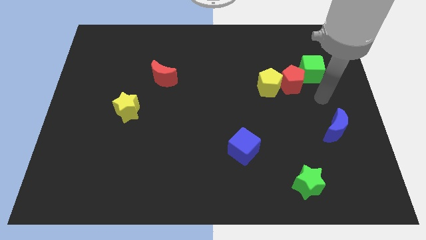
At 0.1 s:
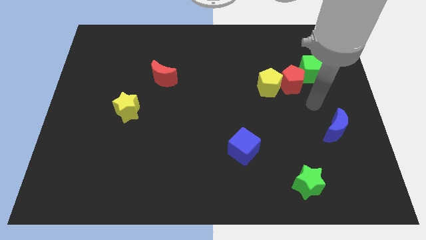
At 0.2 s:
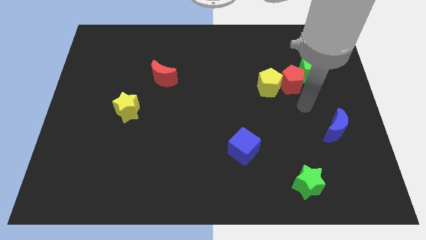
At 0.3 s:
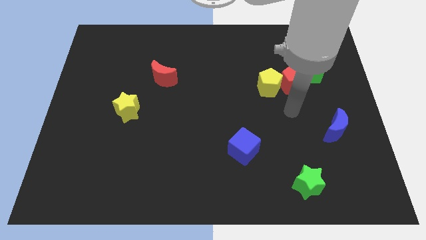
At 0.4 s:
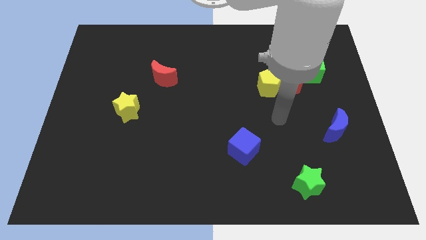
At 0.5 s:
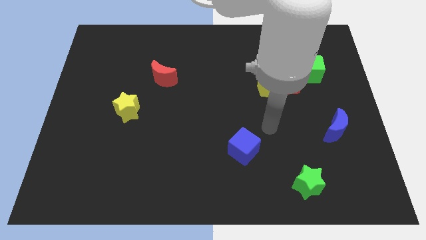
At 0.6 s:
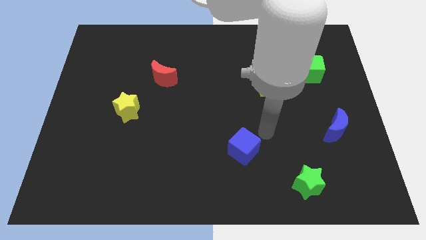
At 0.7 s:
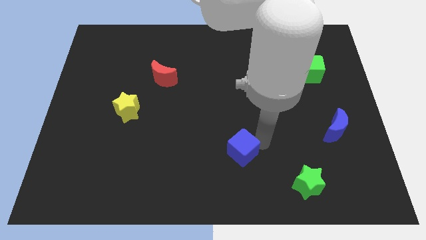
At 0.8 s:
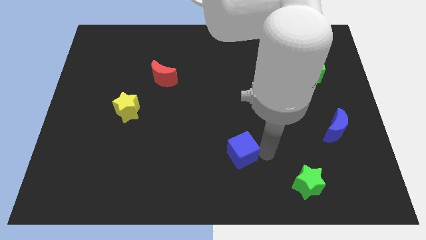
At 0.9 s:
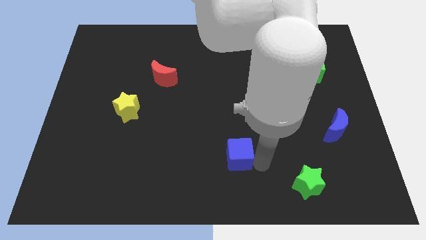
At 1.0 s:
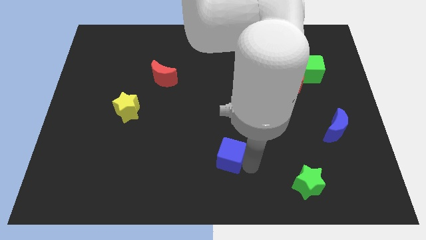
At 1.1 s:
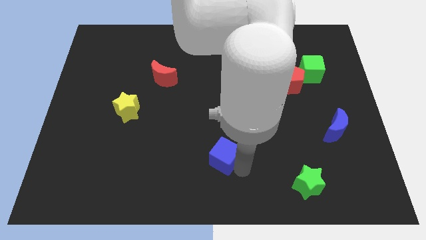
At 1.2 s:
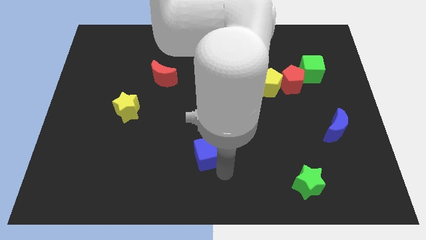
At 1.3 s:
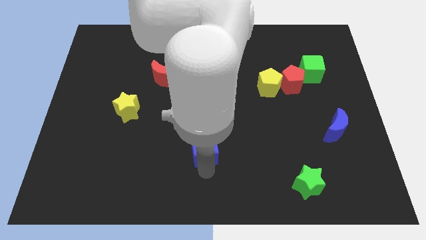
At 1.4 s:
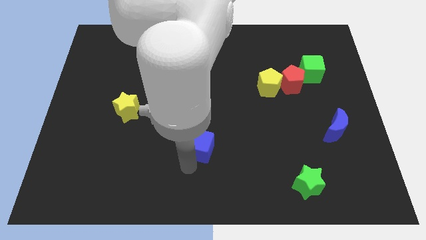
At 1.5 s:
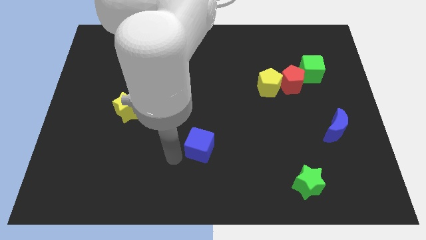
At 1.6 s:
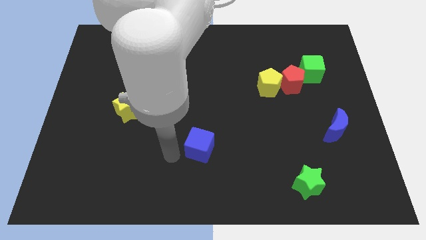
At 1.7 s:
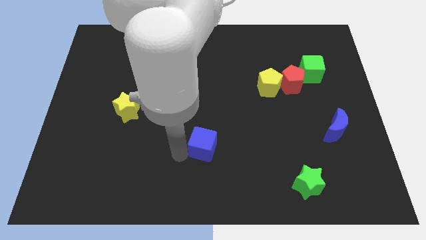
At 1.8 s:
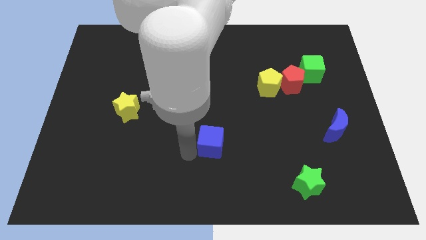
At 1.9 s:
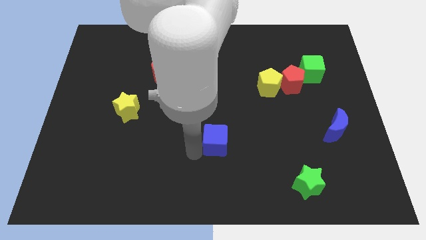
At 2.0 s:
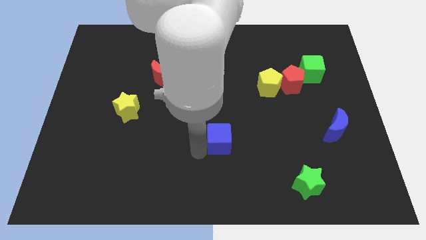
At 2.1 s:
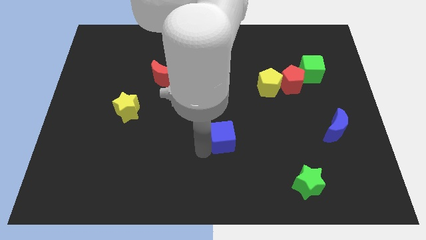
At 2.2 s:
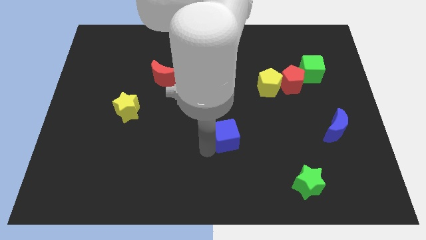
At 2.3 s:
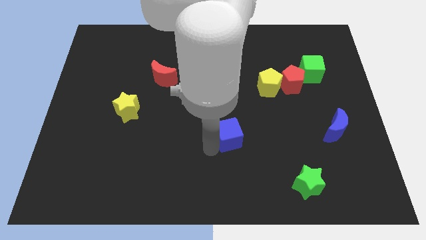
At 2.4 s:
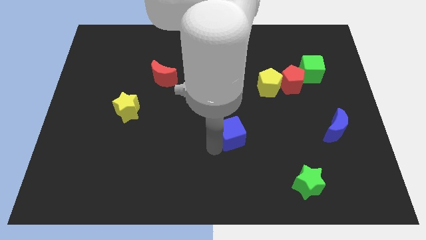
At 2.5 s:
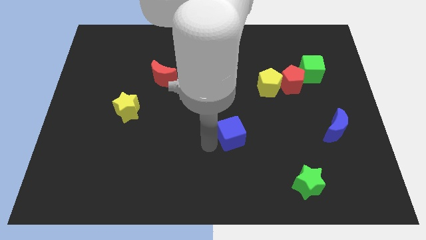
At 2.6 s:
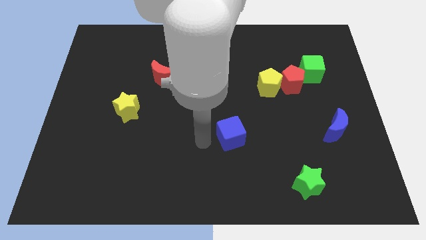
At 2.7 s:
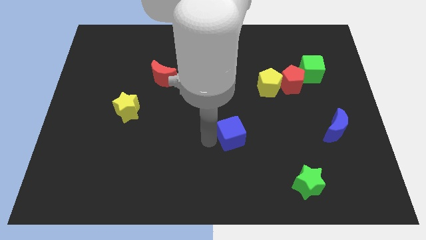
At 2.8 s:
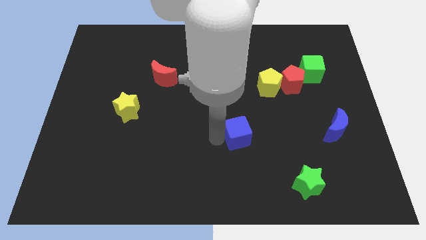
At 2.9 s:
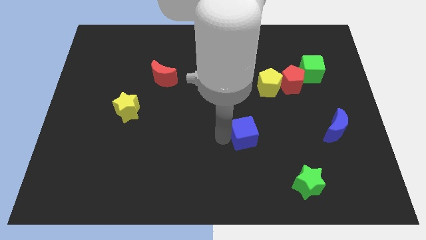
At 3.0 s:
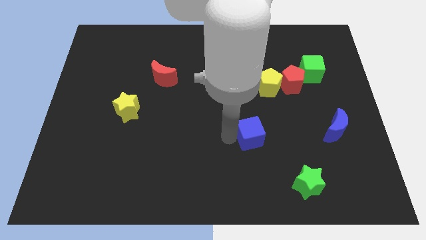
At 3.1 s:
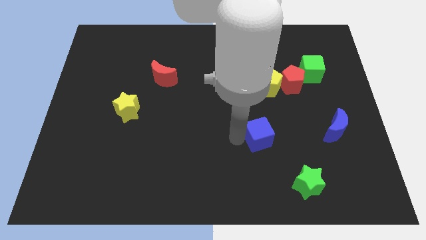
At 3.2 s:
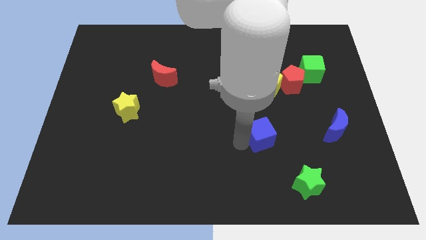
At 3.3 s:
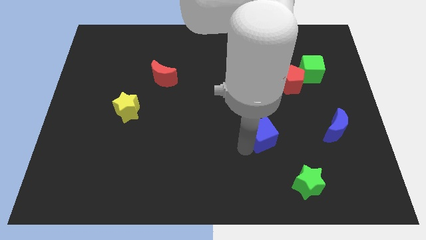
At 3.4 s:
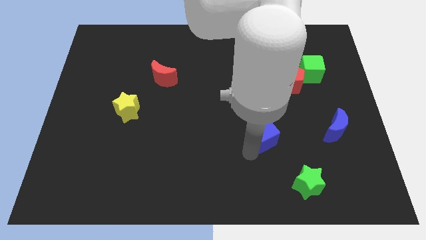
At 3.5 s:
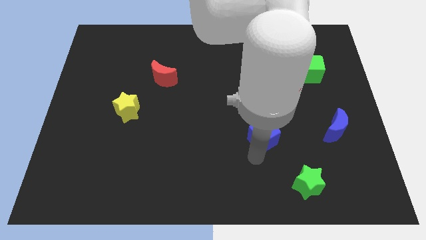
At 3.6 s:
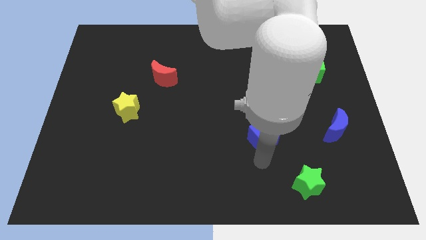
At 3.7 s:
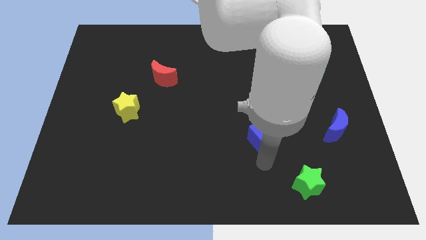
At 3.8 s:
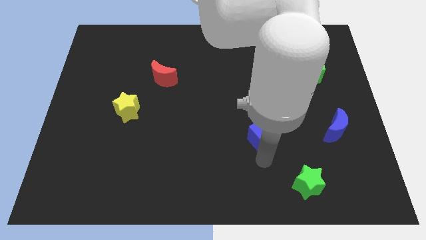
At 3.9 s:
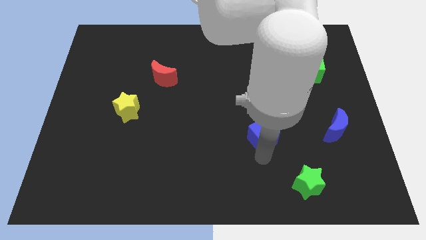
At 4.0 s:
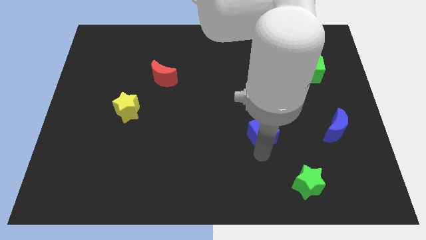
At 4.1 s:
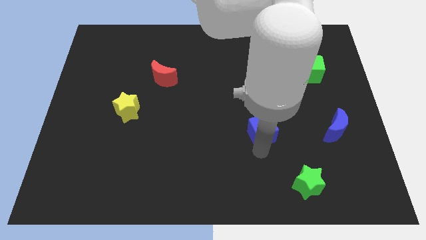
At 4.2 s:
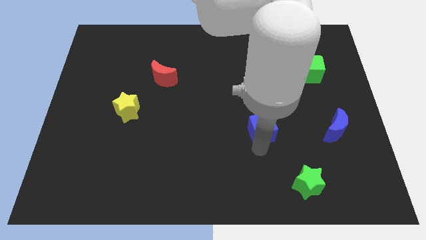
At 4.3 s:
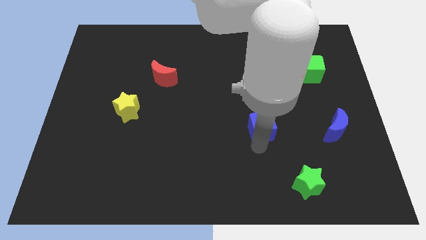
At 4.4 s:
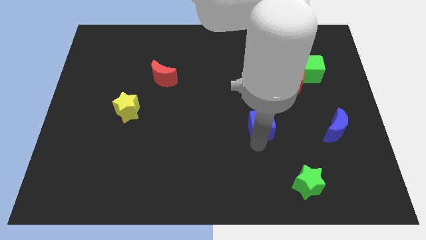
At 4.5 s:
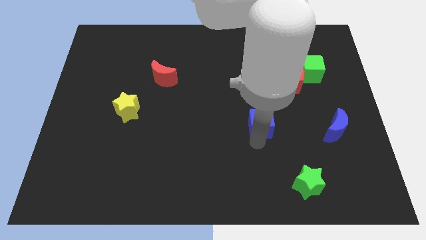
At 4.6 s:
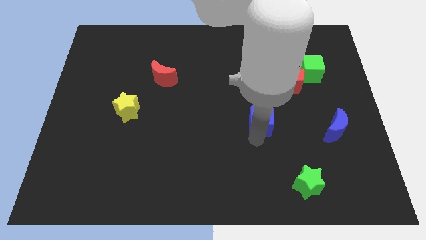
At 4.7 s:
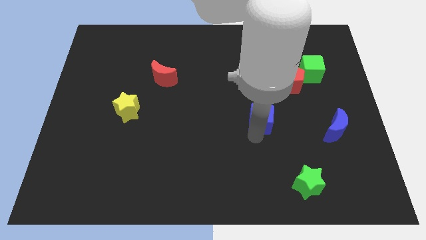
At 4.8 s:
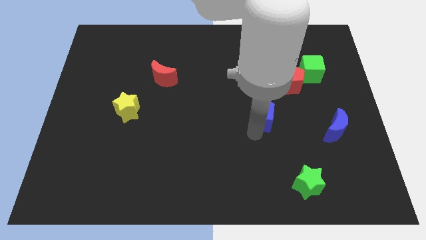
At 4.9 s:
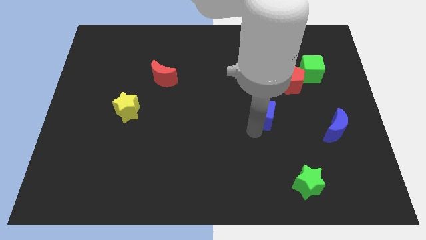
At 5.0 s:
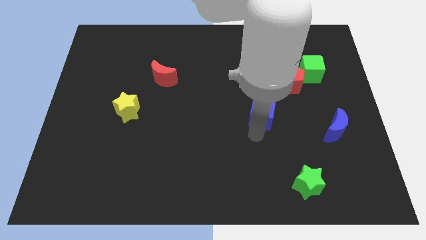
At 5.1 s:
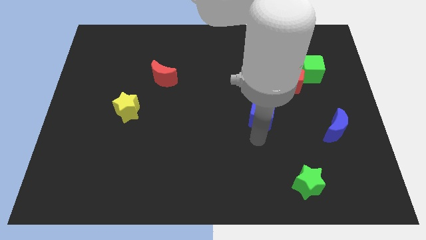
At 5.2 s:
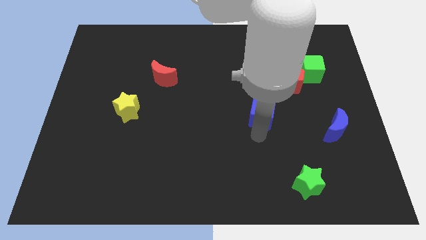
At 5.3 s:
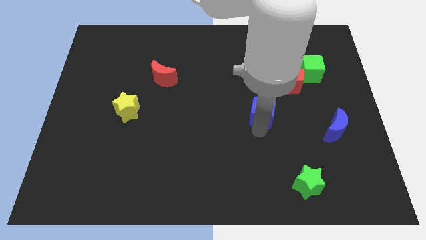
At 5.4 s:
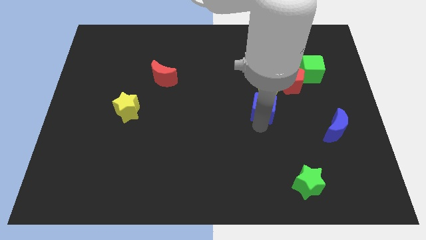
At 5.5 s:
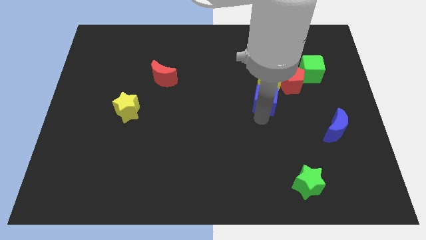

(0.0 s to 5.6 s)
slide the blue cube to the yellow pentagon

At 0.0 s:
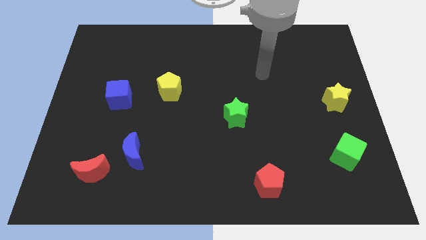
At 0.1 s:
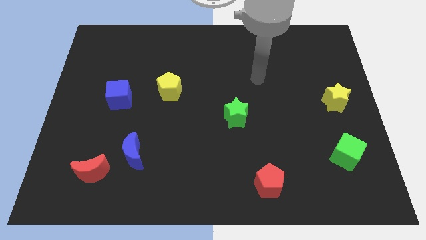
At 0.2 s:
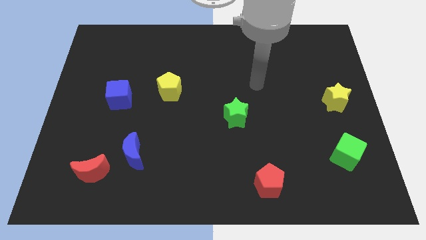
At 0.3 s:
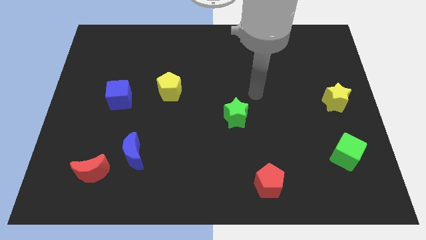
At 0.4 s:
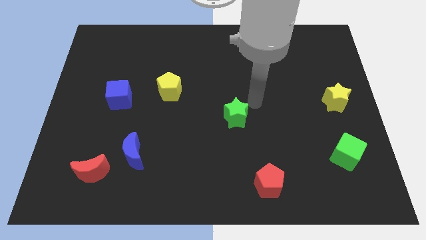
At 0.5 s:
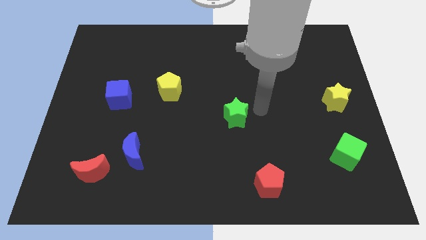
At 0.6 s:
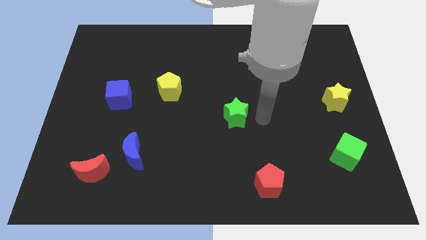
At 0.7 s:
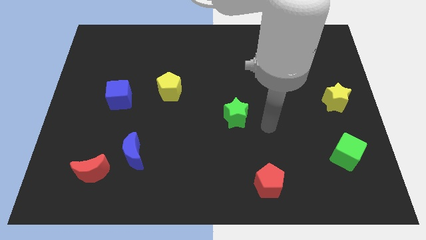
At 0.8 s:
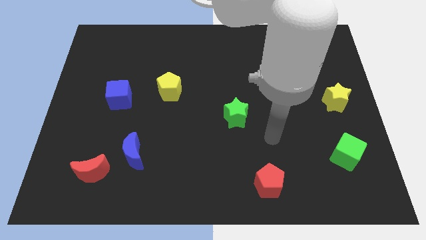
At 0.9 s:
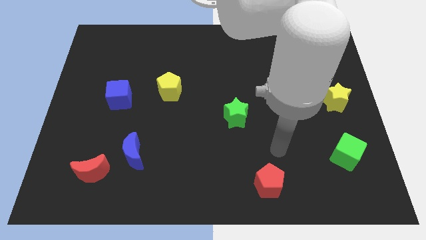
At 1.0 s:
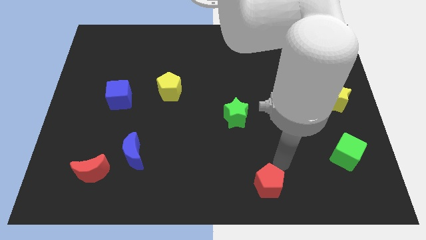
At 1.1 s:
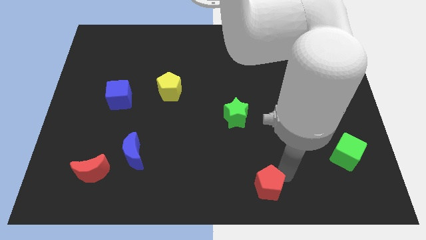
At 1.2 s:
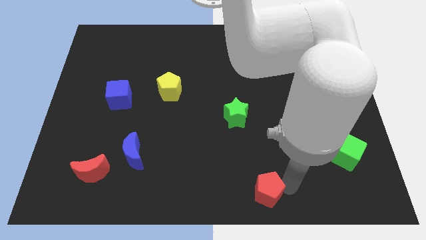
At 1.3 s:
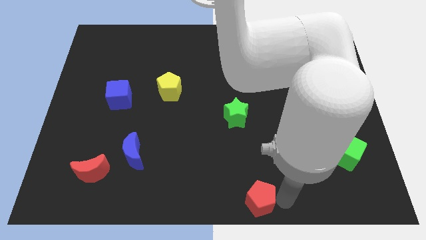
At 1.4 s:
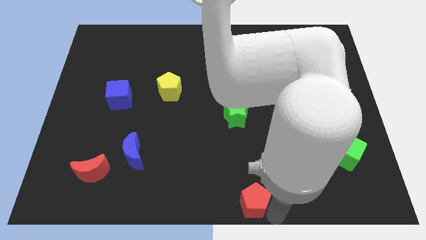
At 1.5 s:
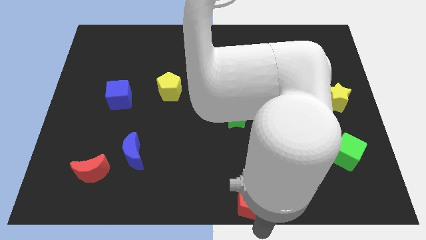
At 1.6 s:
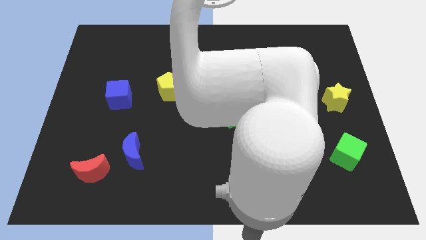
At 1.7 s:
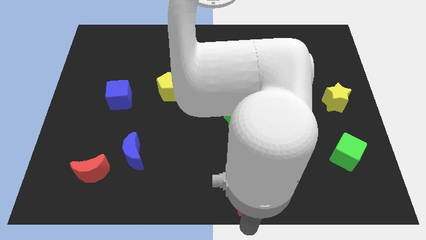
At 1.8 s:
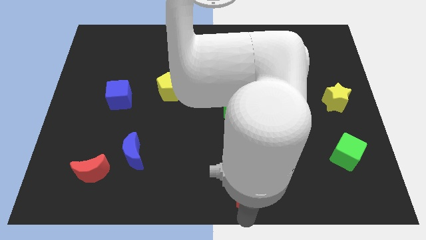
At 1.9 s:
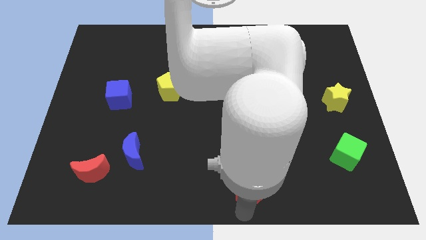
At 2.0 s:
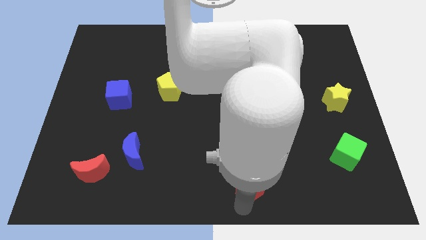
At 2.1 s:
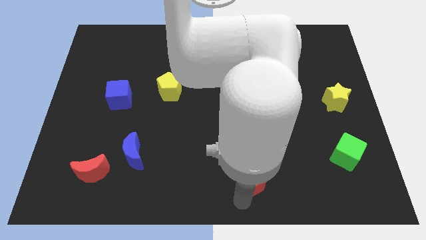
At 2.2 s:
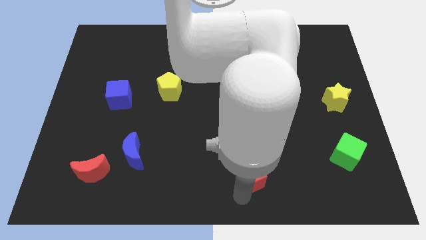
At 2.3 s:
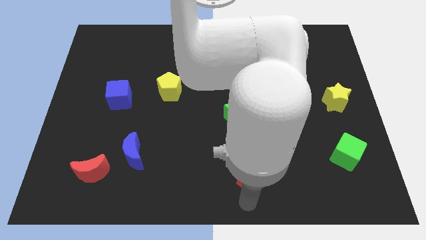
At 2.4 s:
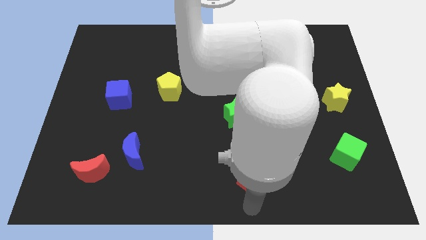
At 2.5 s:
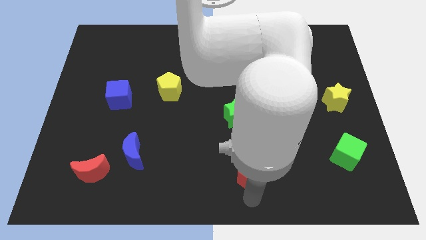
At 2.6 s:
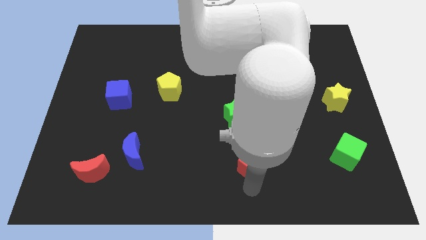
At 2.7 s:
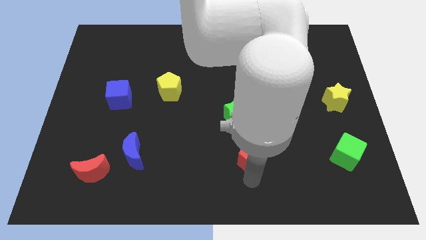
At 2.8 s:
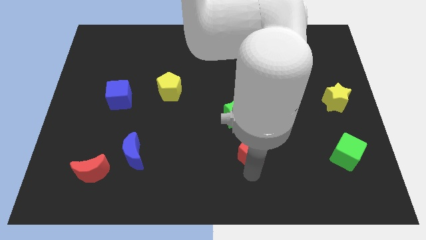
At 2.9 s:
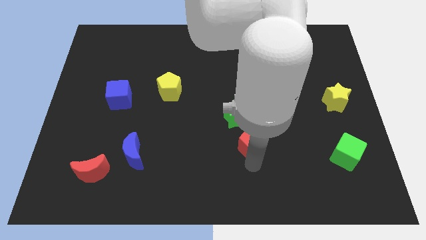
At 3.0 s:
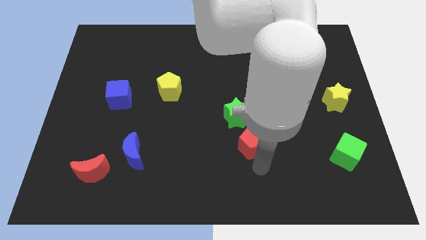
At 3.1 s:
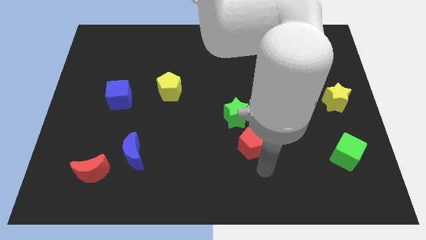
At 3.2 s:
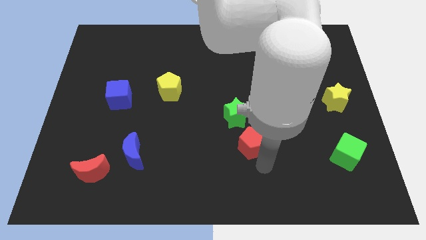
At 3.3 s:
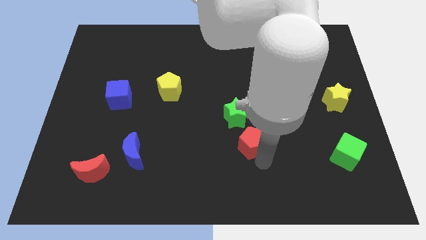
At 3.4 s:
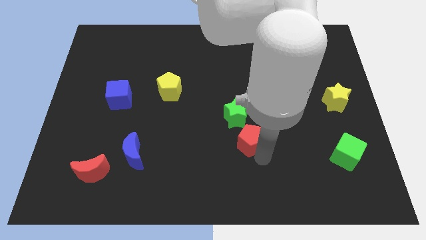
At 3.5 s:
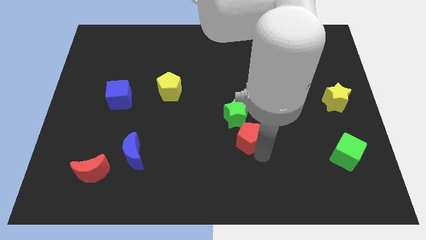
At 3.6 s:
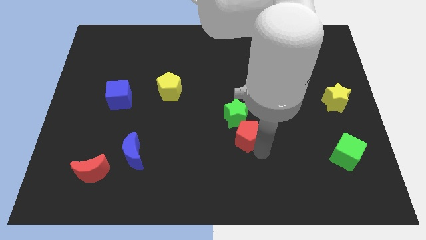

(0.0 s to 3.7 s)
put the red pentagon close to the green star
